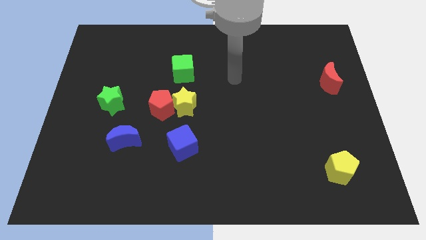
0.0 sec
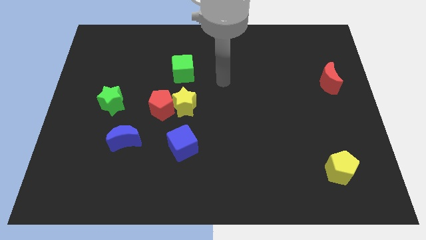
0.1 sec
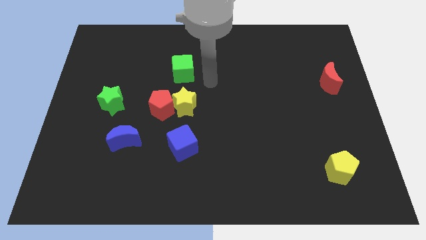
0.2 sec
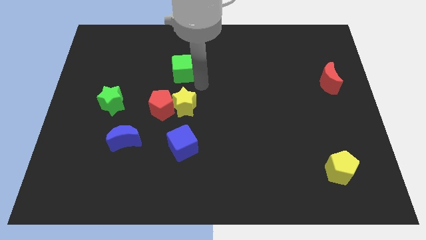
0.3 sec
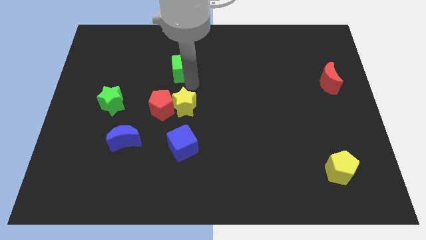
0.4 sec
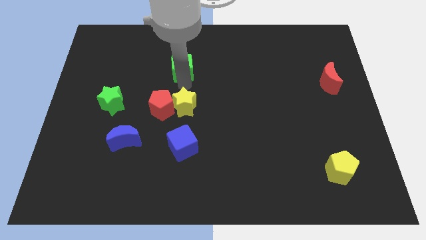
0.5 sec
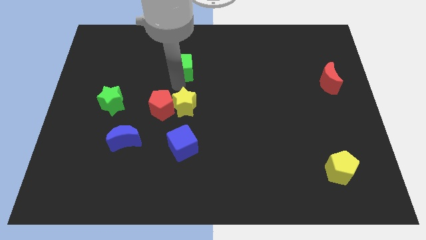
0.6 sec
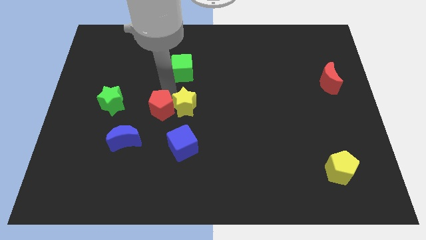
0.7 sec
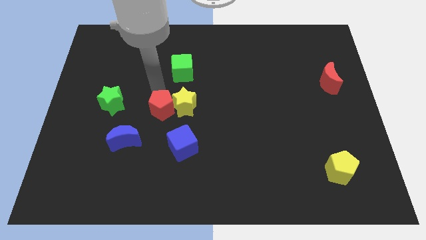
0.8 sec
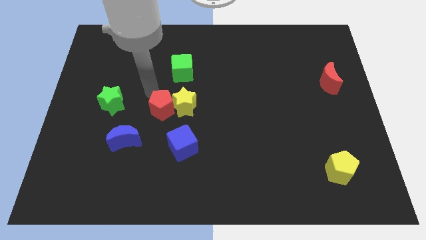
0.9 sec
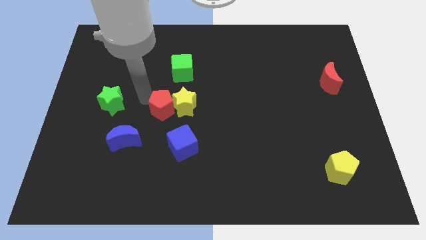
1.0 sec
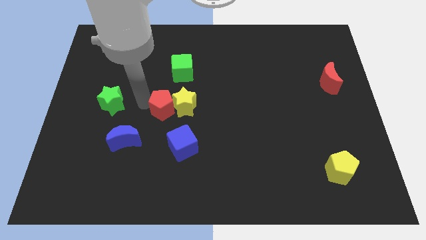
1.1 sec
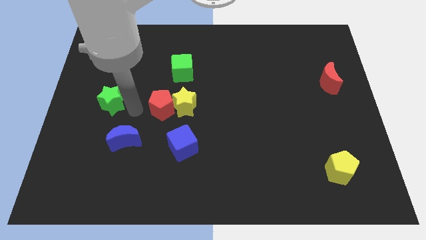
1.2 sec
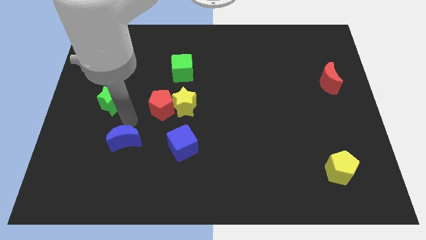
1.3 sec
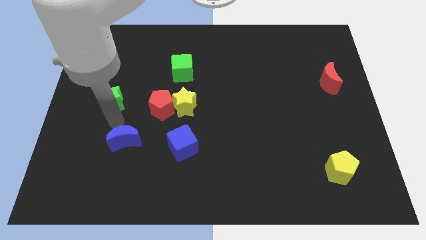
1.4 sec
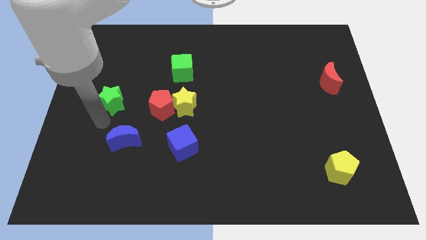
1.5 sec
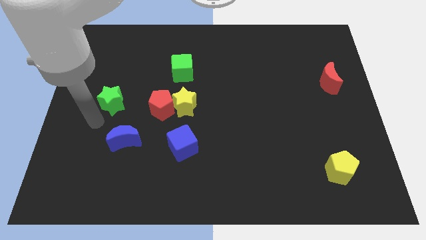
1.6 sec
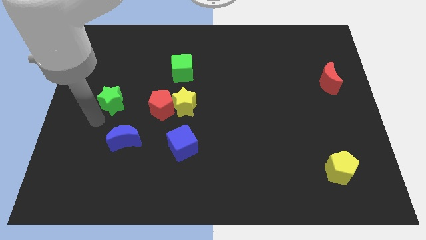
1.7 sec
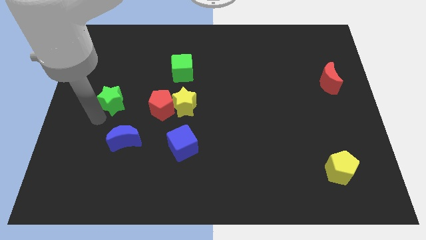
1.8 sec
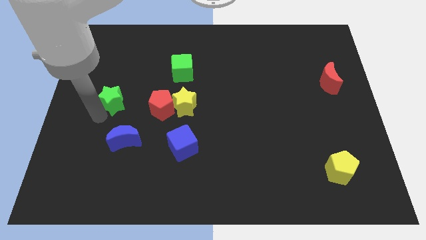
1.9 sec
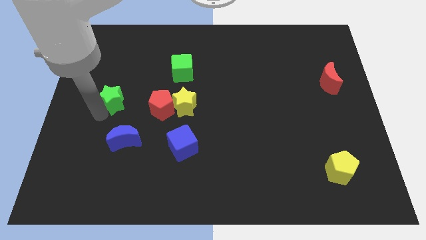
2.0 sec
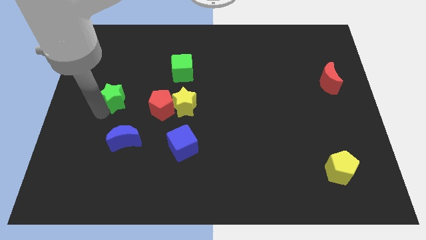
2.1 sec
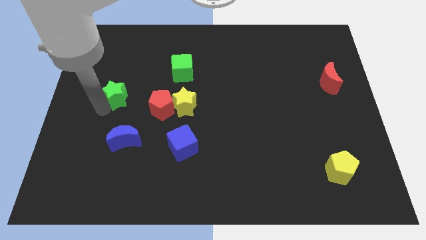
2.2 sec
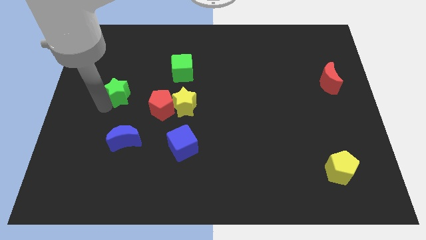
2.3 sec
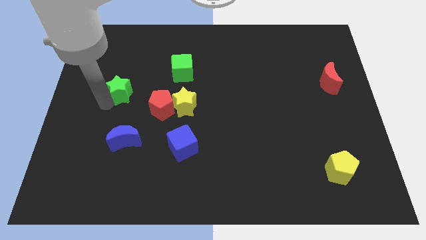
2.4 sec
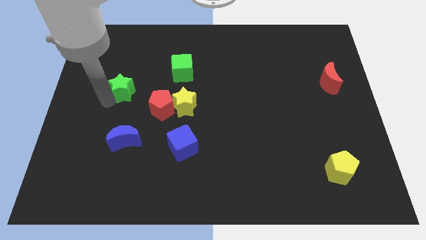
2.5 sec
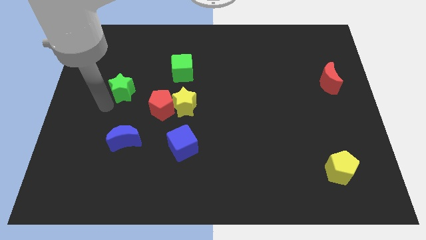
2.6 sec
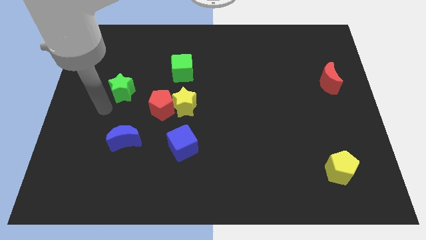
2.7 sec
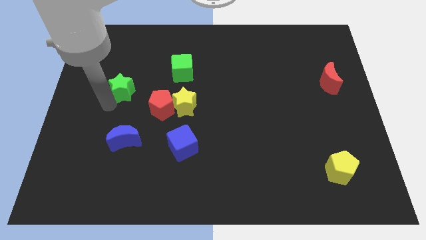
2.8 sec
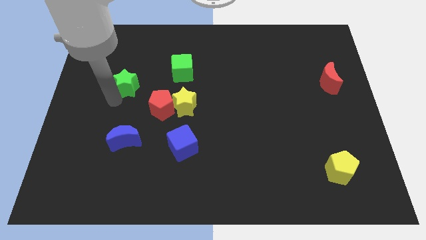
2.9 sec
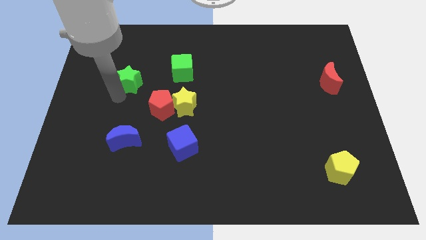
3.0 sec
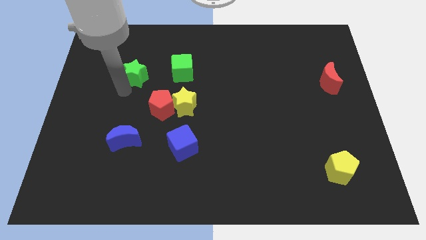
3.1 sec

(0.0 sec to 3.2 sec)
slightly move the green star upwards and right

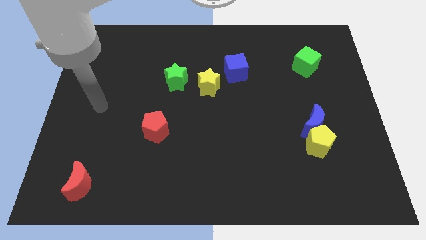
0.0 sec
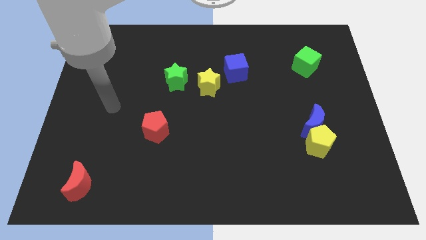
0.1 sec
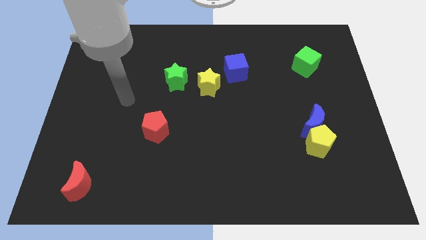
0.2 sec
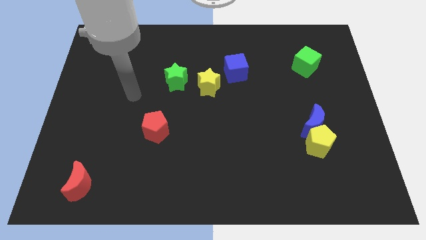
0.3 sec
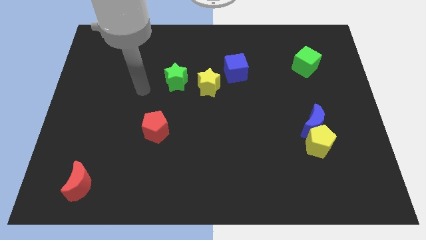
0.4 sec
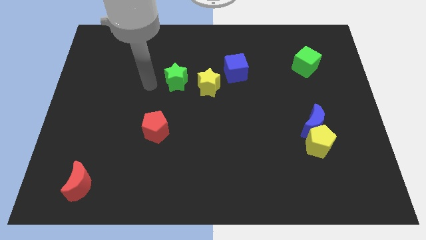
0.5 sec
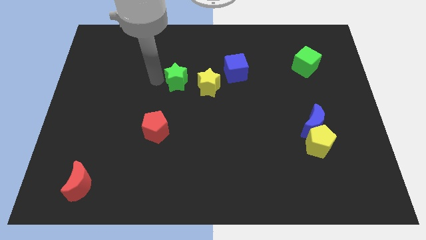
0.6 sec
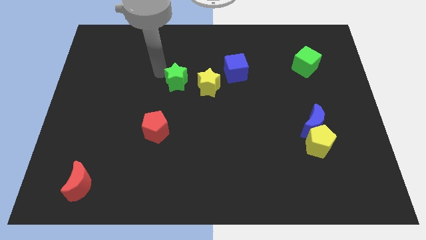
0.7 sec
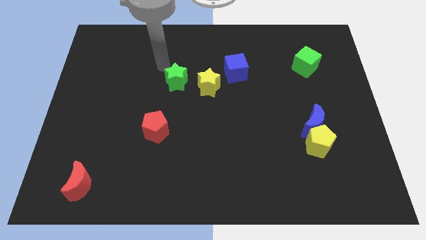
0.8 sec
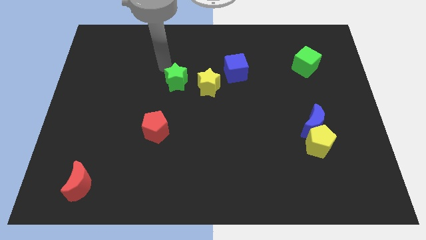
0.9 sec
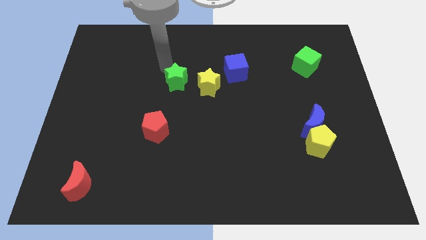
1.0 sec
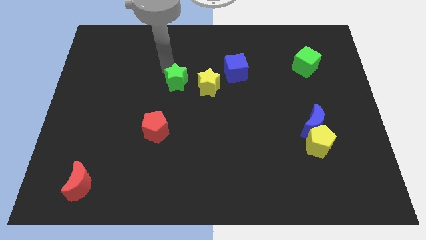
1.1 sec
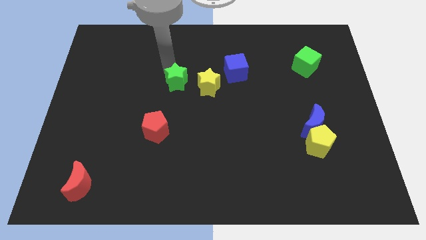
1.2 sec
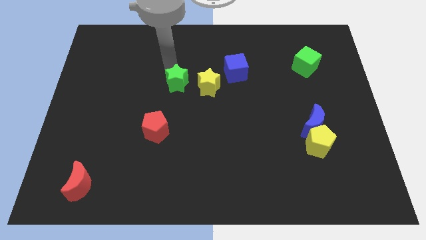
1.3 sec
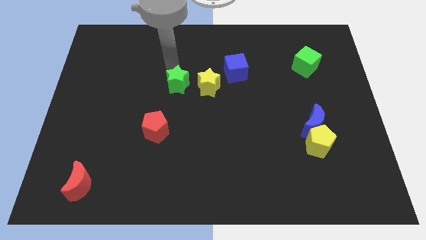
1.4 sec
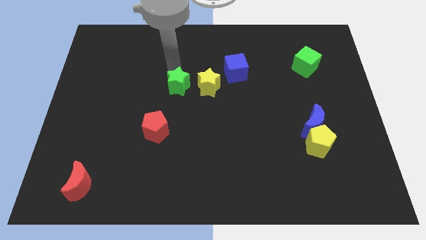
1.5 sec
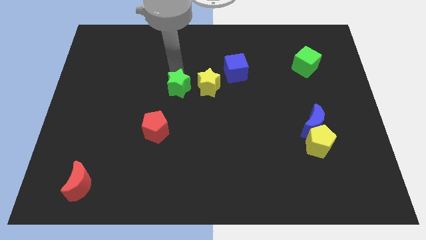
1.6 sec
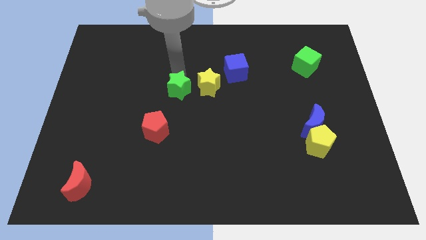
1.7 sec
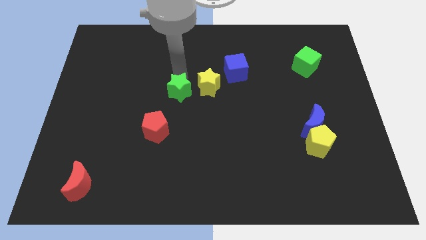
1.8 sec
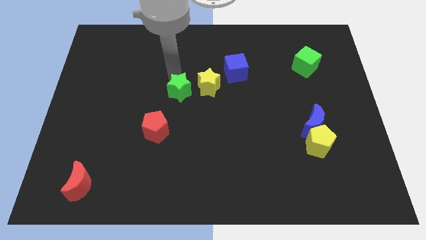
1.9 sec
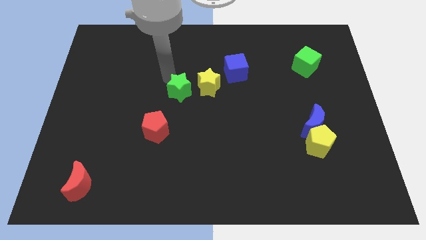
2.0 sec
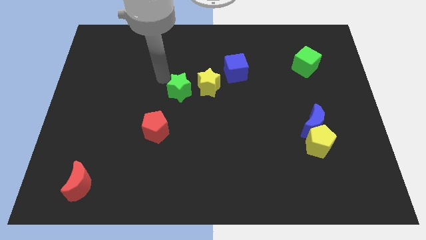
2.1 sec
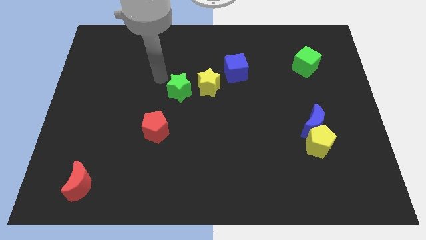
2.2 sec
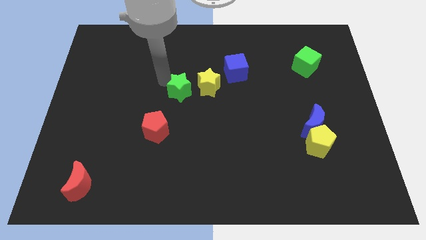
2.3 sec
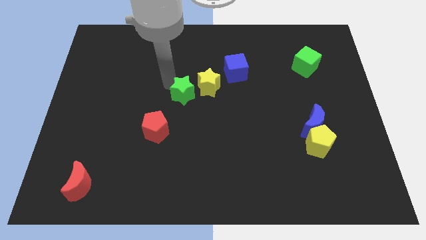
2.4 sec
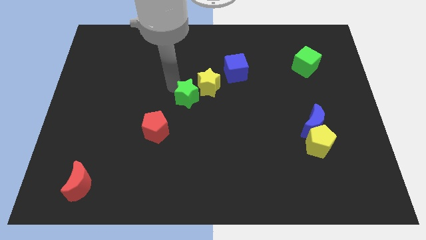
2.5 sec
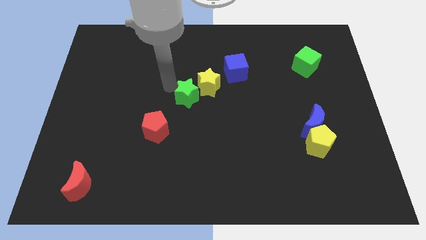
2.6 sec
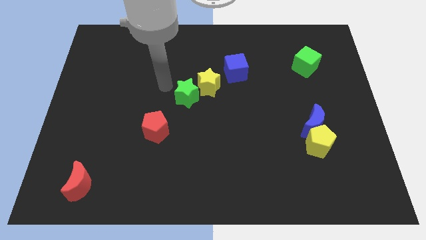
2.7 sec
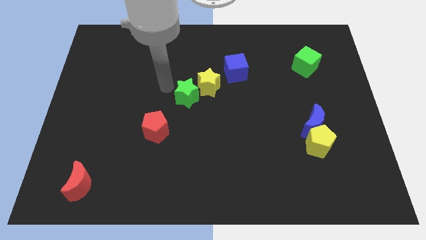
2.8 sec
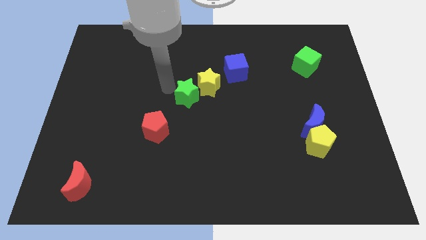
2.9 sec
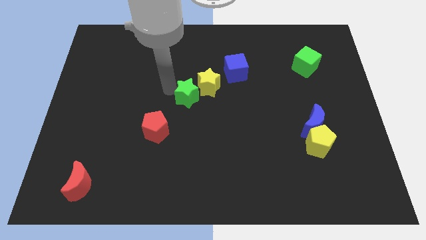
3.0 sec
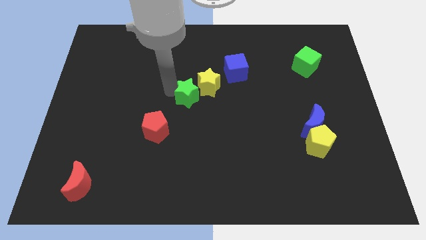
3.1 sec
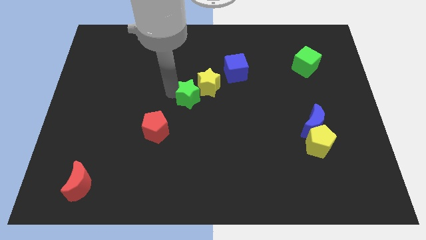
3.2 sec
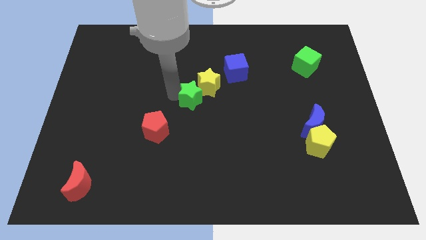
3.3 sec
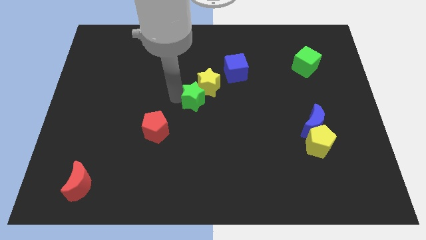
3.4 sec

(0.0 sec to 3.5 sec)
push the green star a little downwards and right

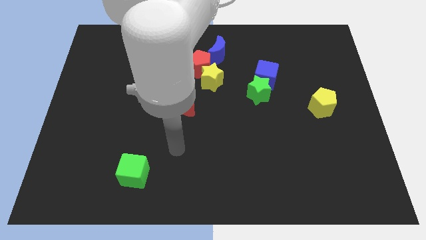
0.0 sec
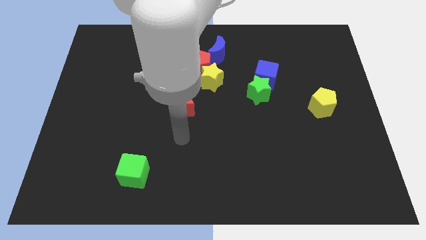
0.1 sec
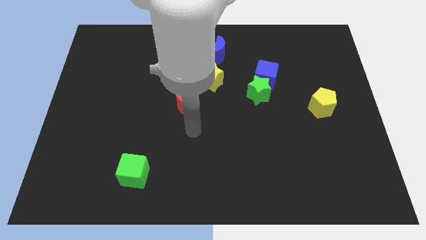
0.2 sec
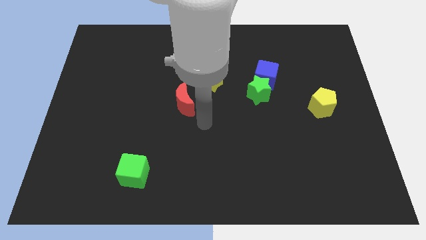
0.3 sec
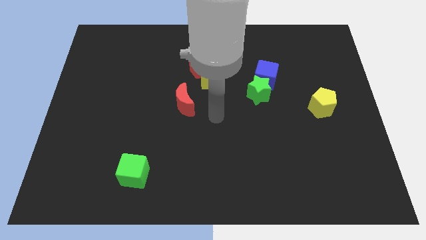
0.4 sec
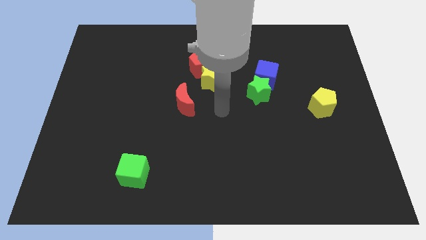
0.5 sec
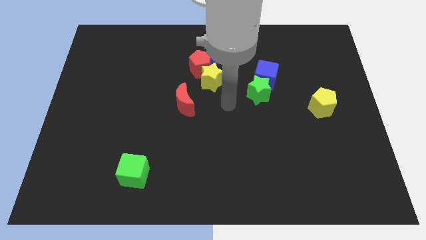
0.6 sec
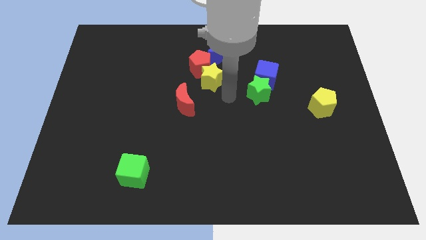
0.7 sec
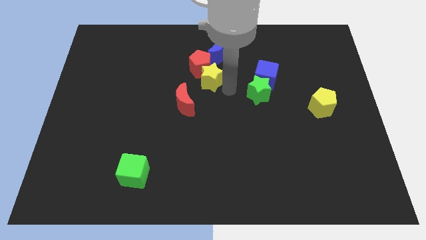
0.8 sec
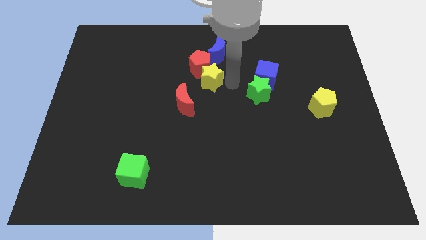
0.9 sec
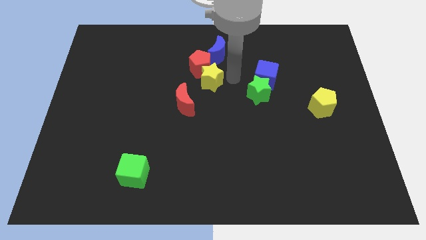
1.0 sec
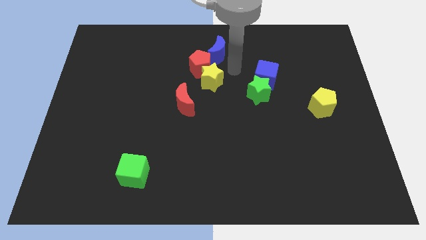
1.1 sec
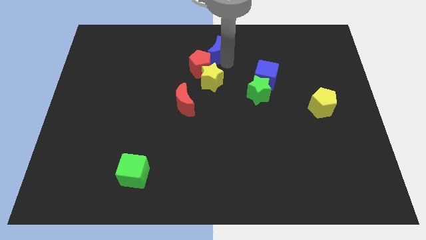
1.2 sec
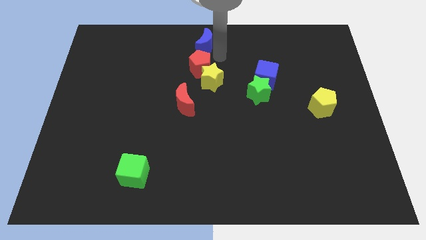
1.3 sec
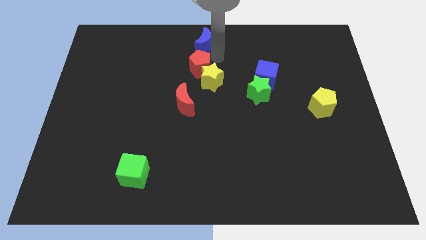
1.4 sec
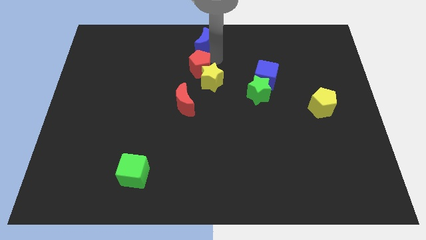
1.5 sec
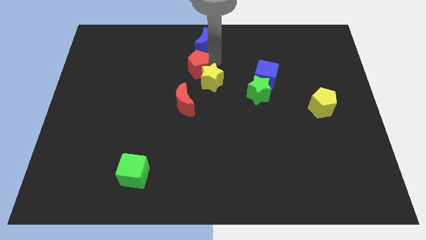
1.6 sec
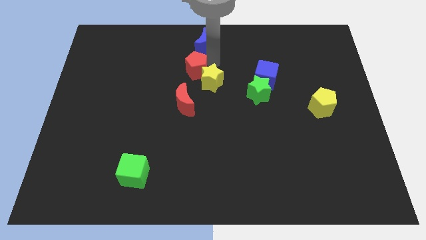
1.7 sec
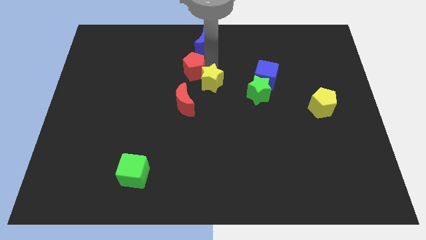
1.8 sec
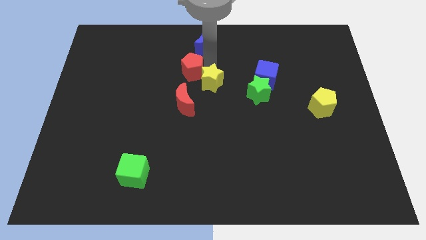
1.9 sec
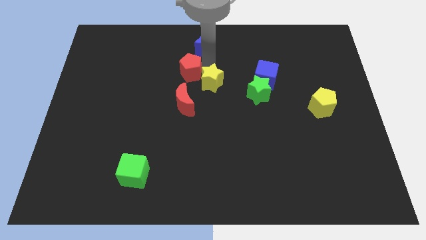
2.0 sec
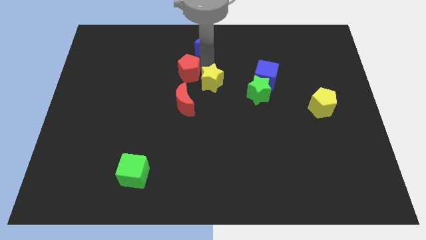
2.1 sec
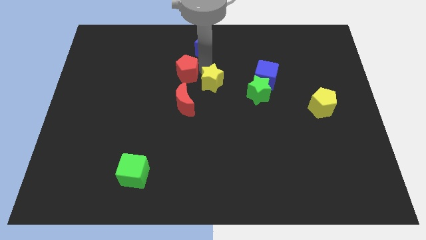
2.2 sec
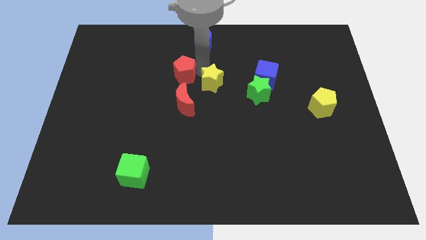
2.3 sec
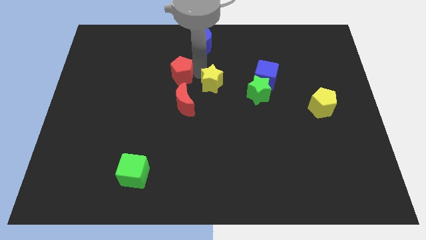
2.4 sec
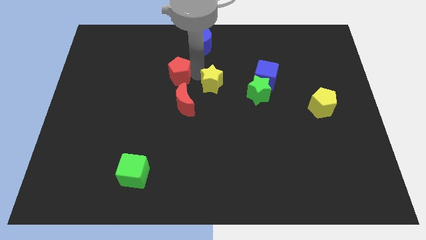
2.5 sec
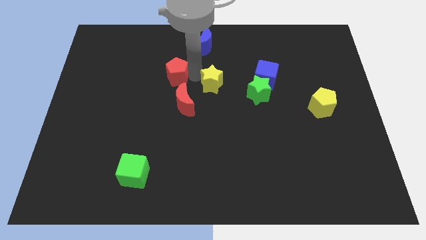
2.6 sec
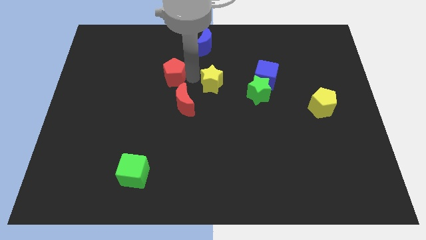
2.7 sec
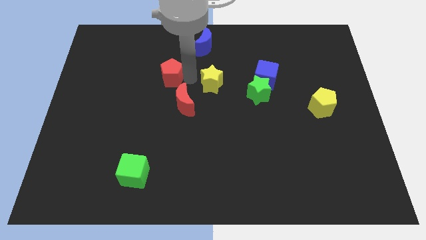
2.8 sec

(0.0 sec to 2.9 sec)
slide the red pentagon down and left a little bit
